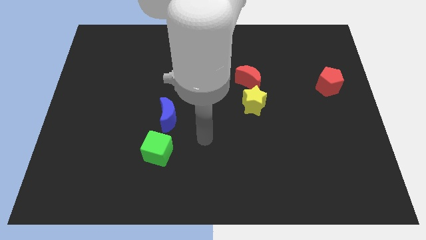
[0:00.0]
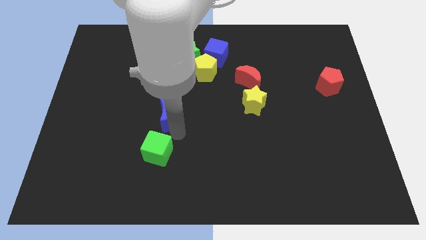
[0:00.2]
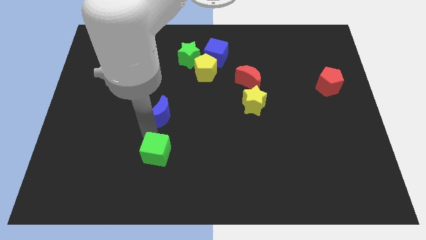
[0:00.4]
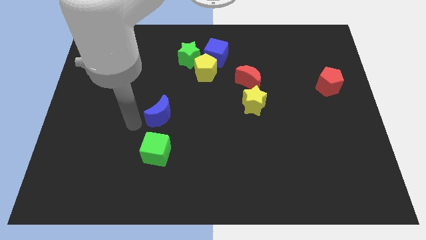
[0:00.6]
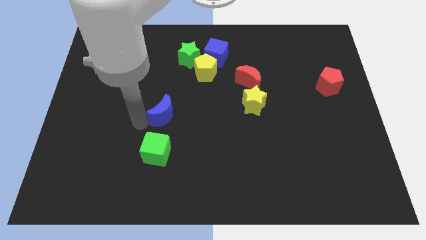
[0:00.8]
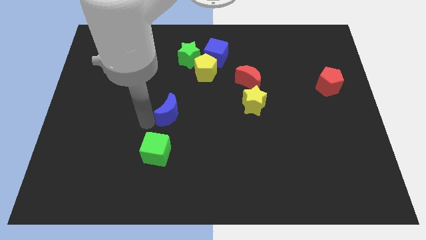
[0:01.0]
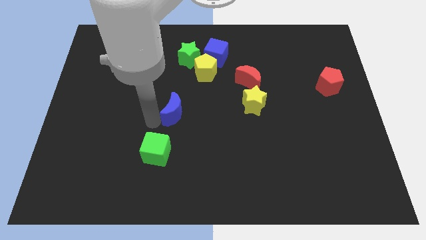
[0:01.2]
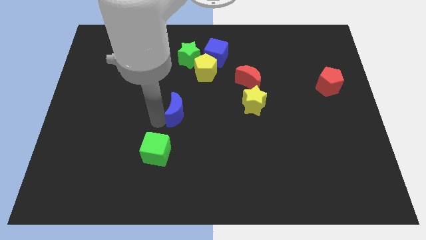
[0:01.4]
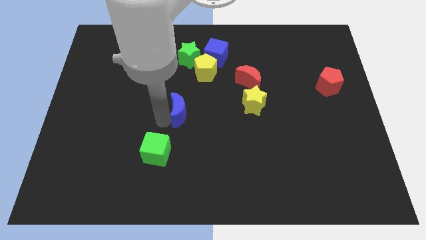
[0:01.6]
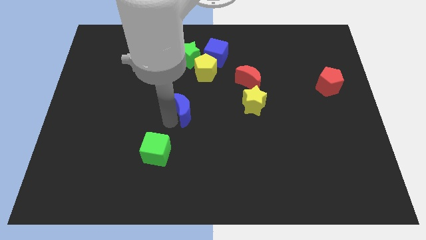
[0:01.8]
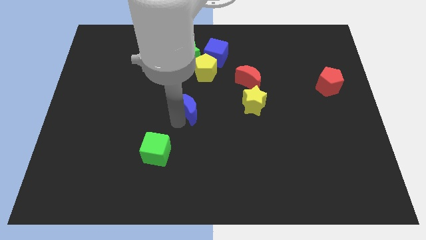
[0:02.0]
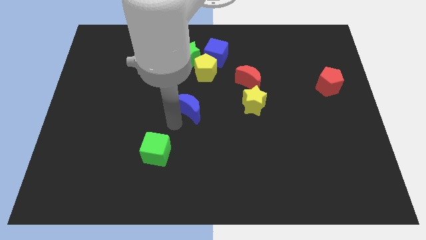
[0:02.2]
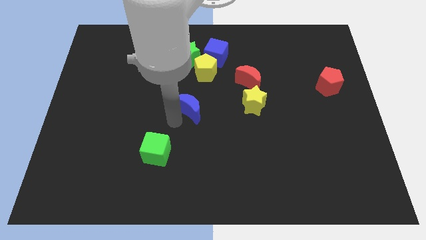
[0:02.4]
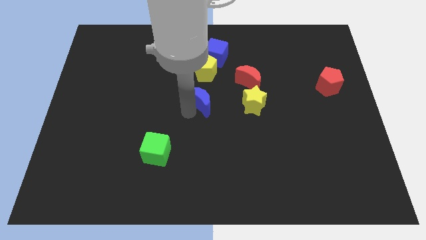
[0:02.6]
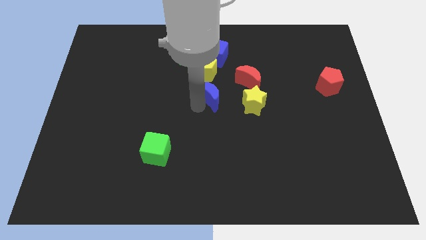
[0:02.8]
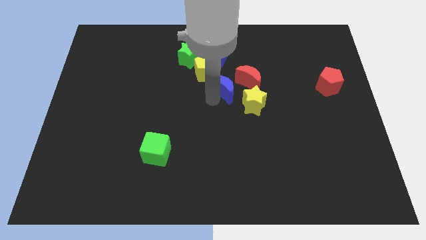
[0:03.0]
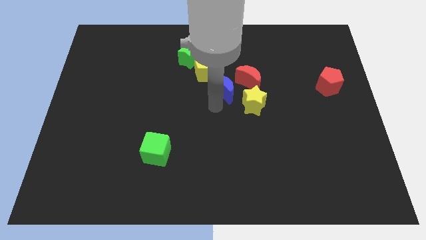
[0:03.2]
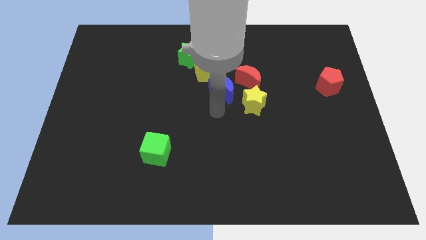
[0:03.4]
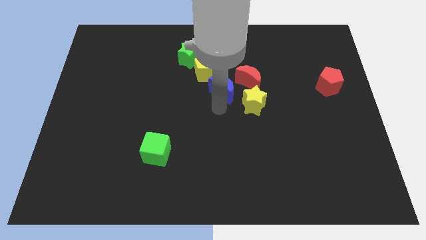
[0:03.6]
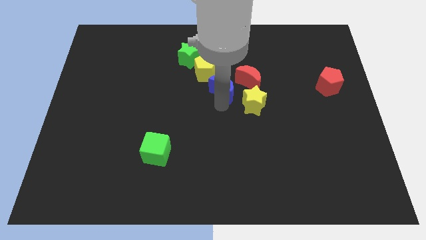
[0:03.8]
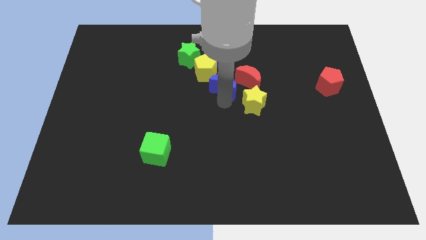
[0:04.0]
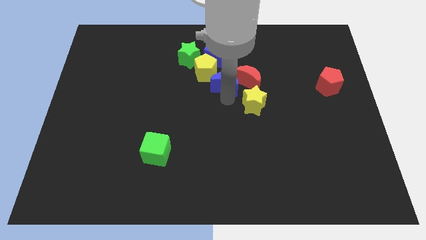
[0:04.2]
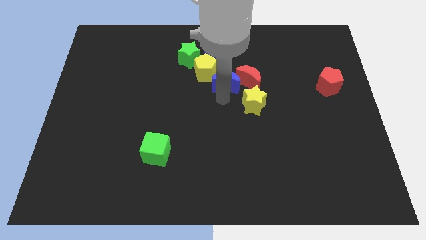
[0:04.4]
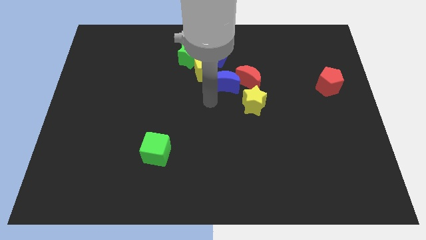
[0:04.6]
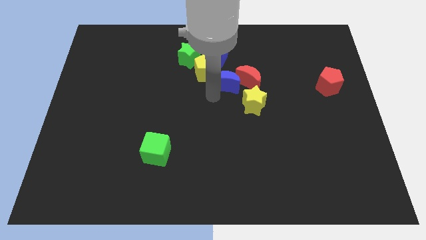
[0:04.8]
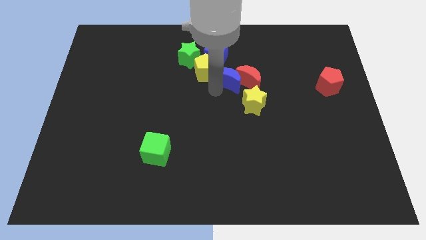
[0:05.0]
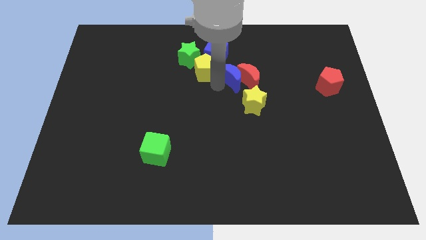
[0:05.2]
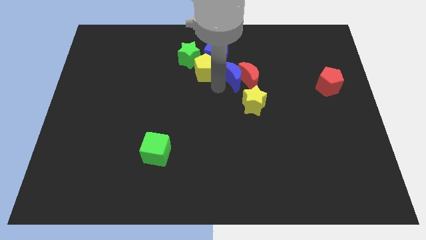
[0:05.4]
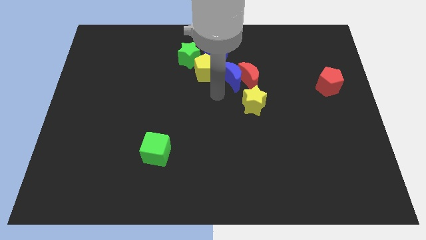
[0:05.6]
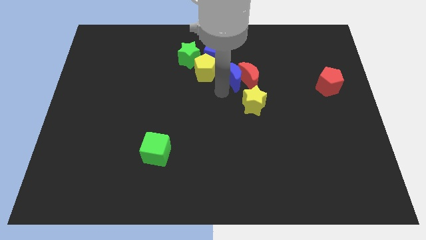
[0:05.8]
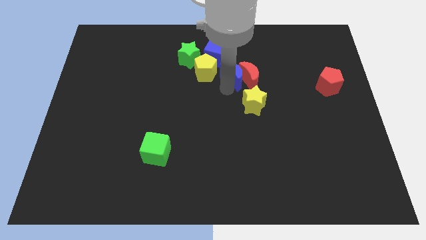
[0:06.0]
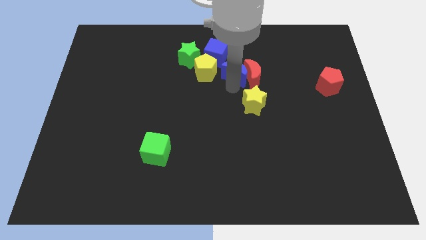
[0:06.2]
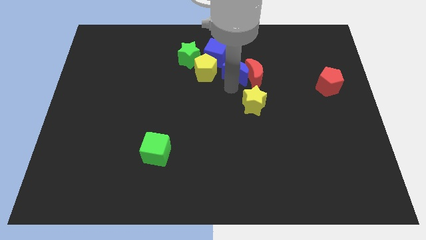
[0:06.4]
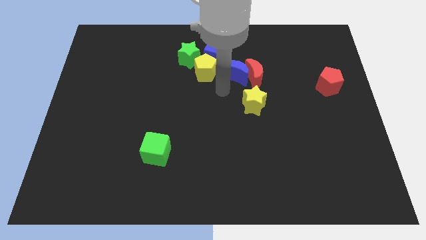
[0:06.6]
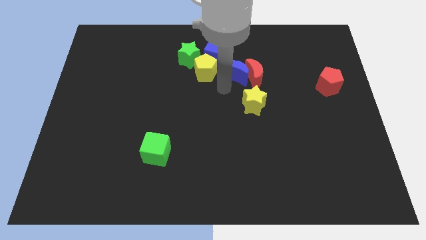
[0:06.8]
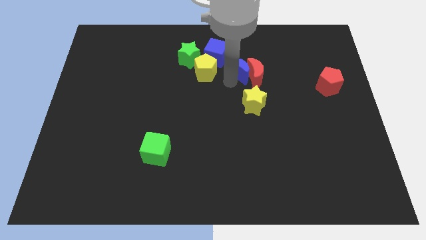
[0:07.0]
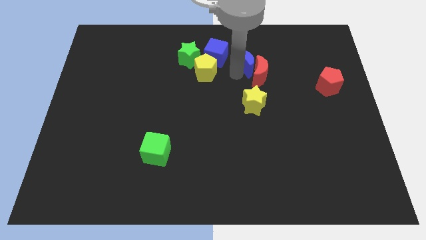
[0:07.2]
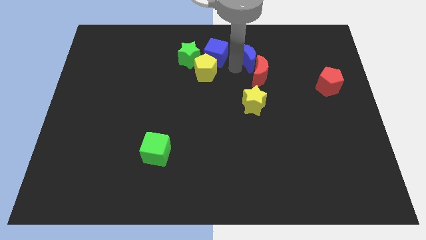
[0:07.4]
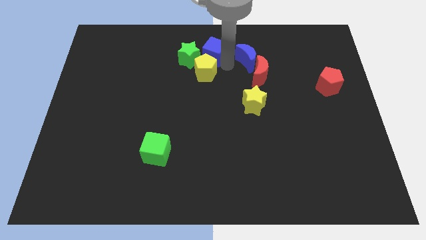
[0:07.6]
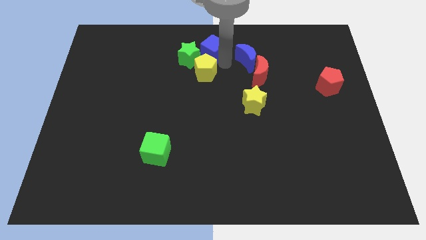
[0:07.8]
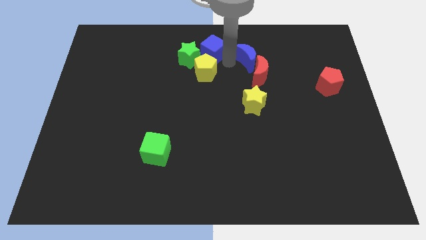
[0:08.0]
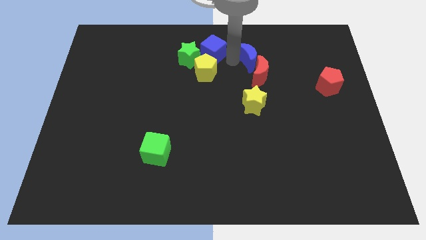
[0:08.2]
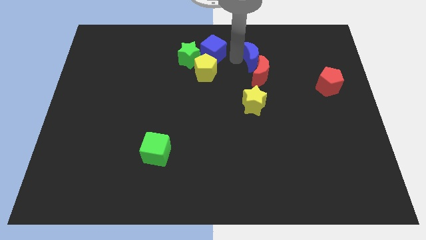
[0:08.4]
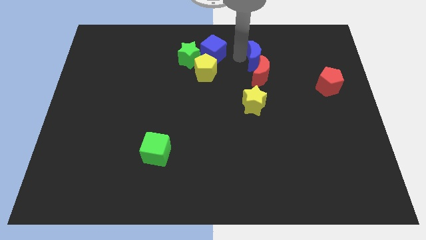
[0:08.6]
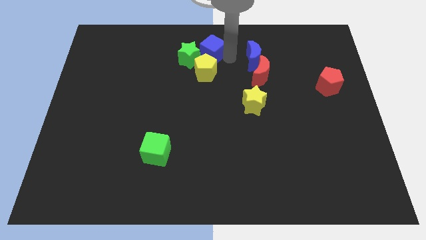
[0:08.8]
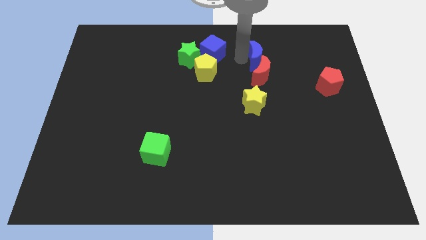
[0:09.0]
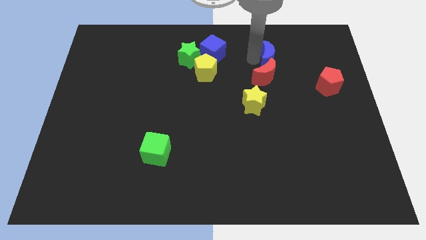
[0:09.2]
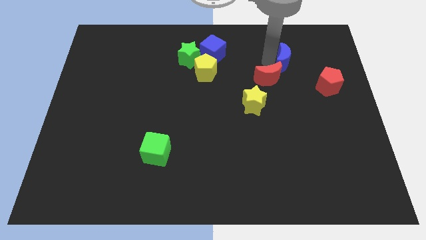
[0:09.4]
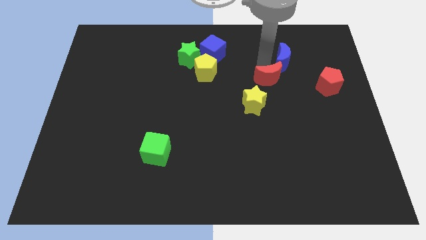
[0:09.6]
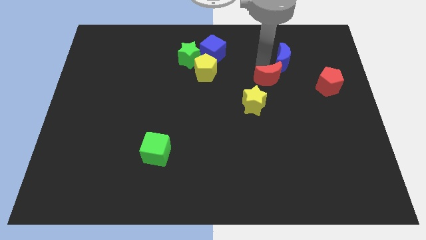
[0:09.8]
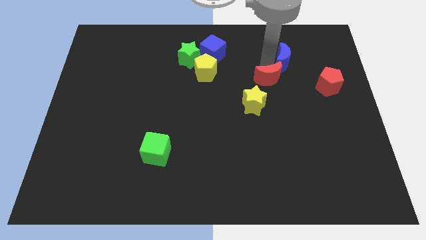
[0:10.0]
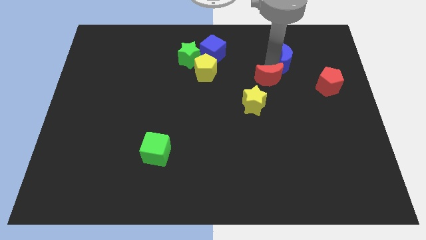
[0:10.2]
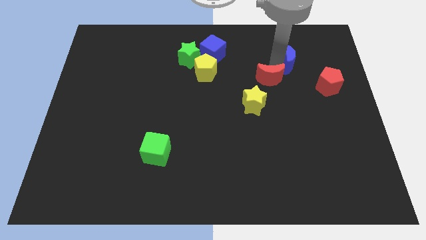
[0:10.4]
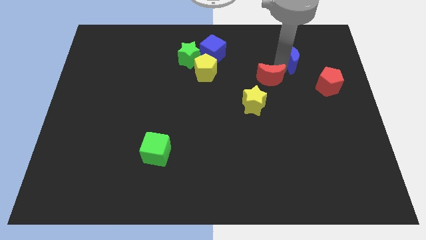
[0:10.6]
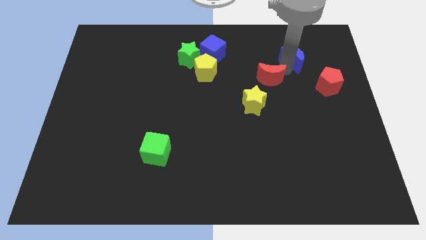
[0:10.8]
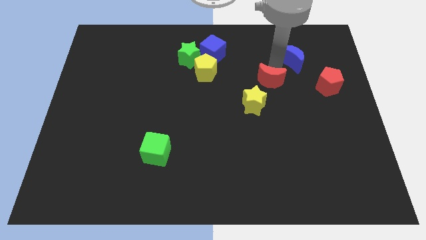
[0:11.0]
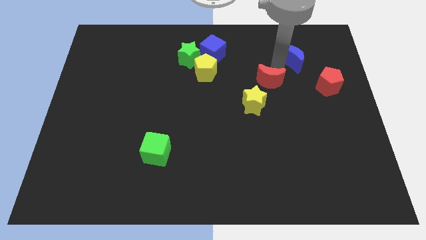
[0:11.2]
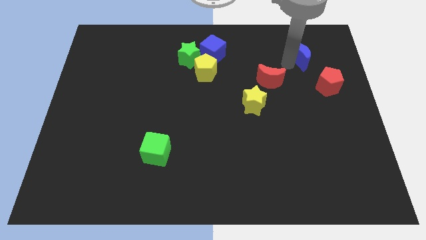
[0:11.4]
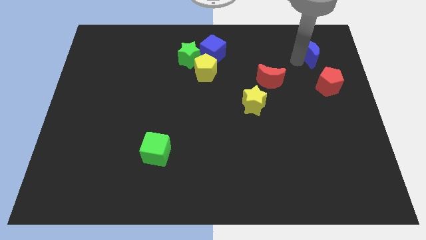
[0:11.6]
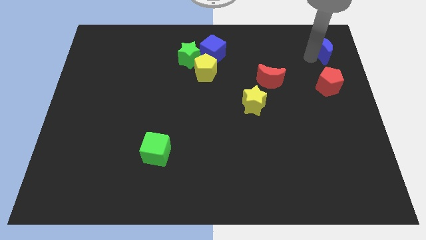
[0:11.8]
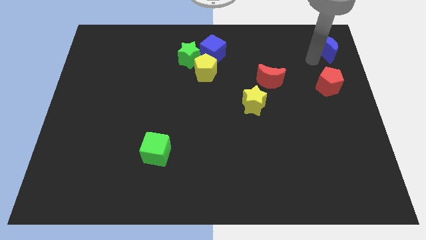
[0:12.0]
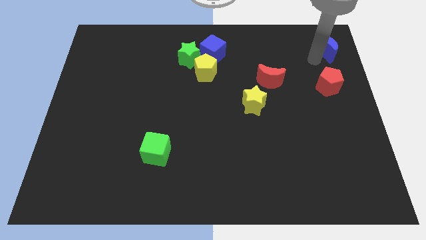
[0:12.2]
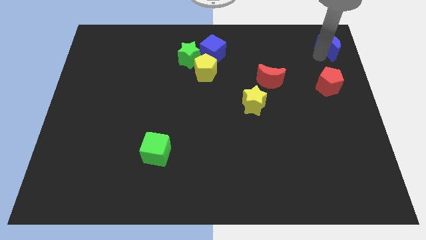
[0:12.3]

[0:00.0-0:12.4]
move the blue moon to the top right of the board

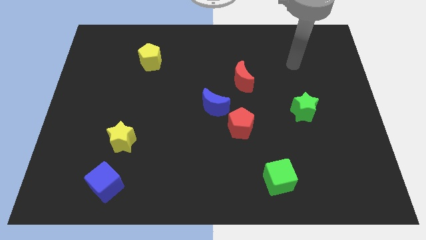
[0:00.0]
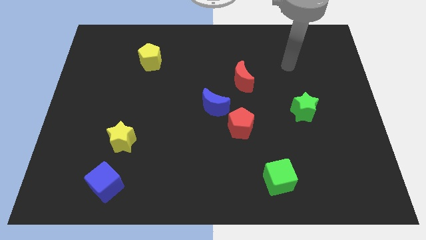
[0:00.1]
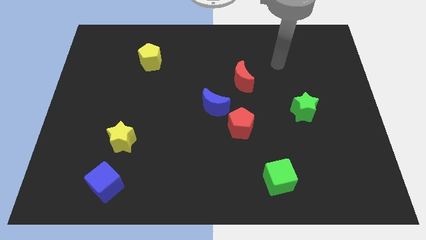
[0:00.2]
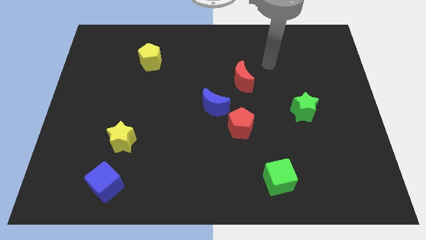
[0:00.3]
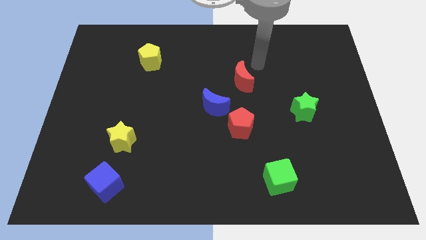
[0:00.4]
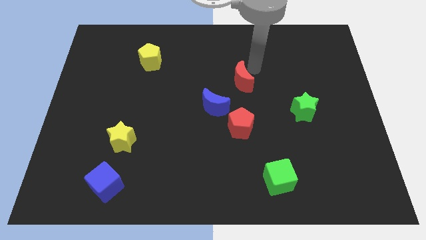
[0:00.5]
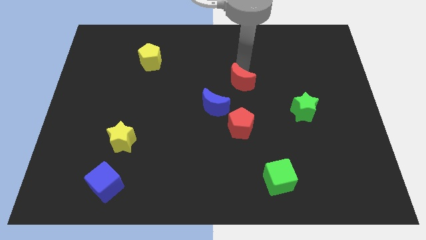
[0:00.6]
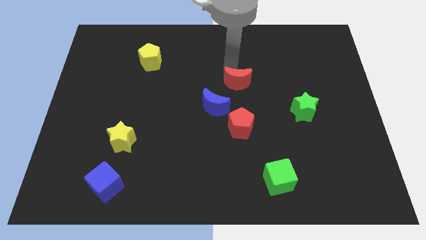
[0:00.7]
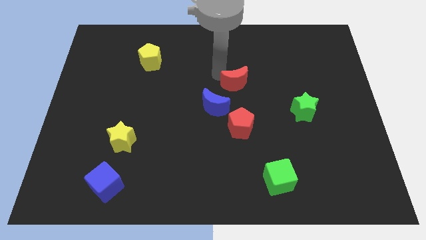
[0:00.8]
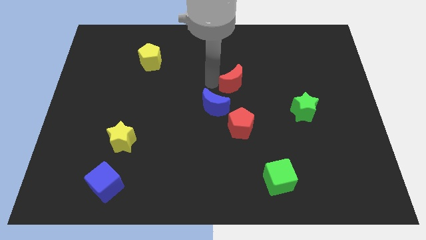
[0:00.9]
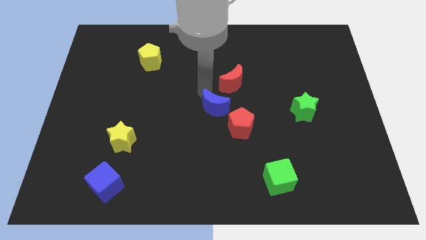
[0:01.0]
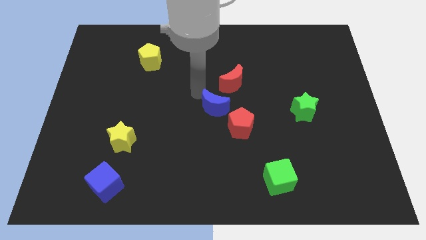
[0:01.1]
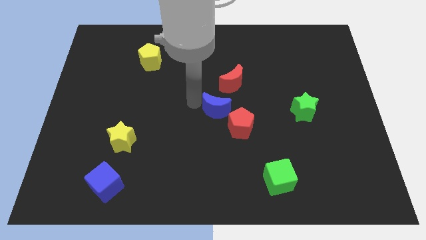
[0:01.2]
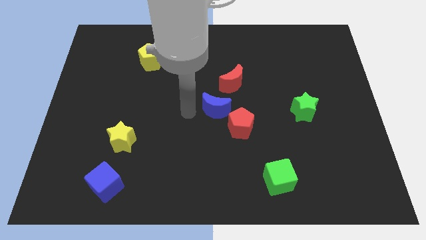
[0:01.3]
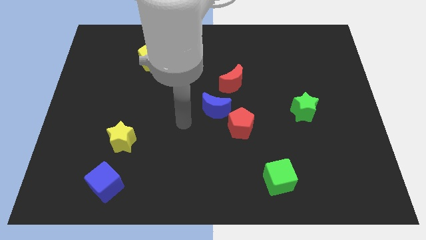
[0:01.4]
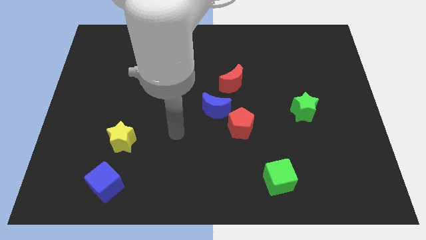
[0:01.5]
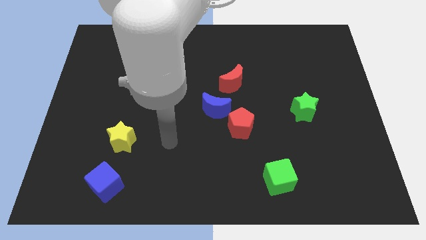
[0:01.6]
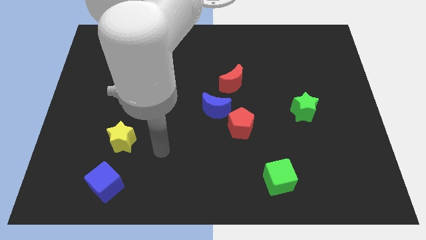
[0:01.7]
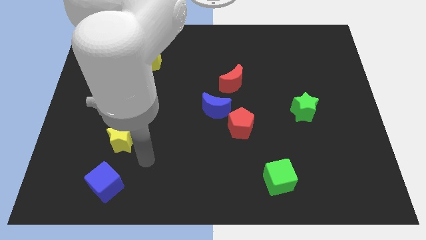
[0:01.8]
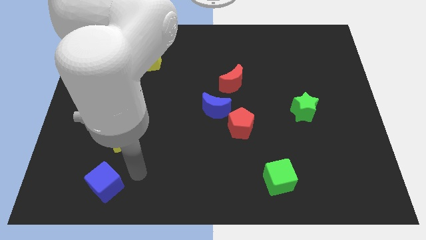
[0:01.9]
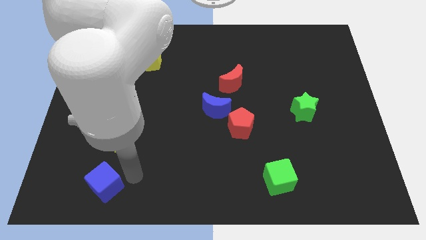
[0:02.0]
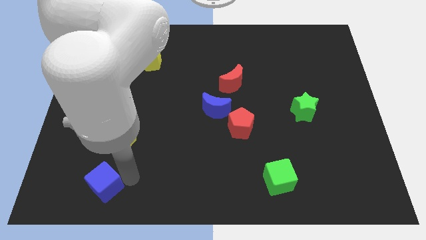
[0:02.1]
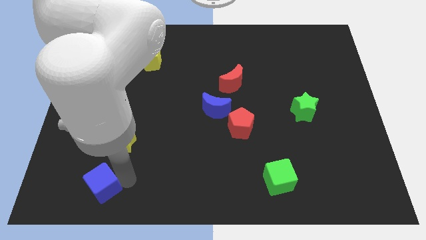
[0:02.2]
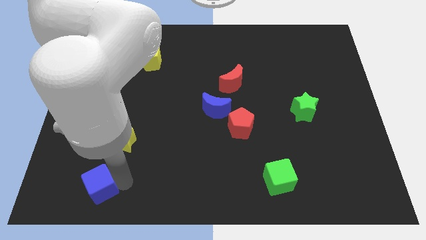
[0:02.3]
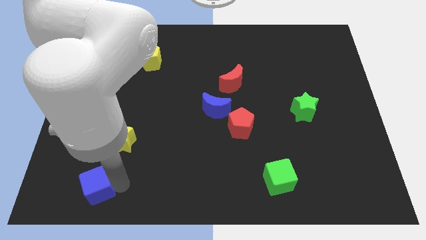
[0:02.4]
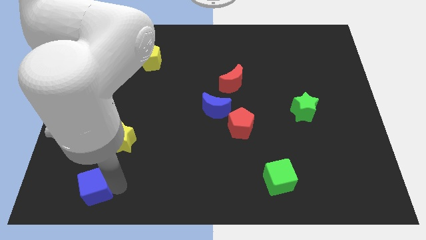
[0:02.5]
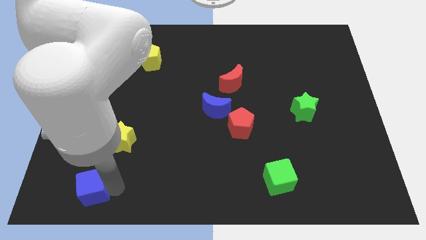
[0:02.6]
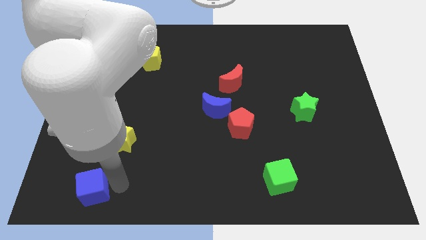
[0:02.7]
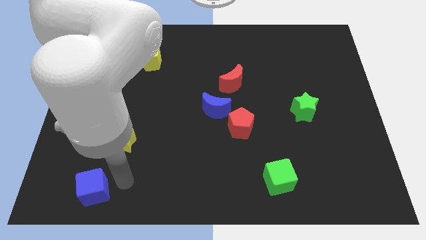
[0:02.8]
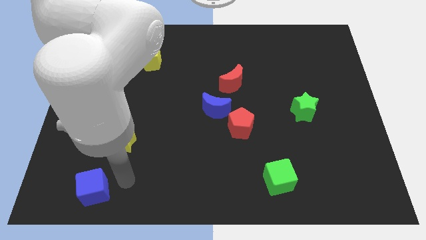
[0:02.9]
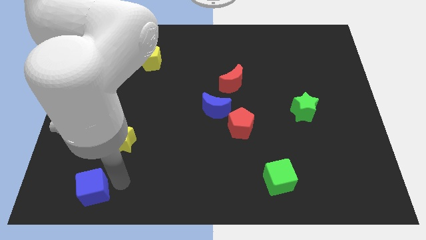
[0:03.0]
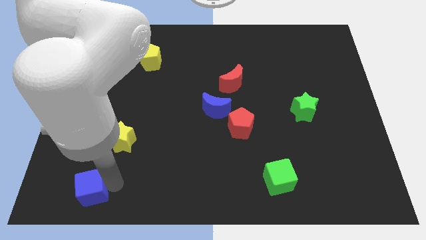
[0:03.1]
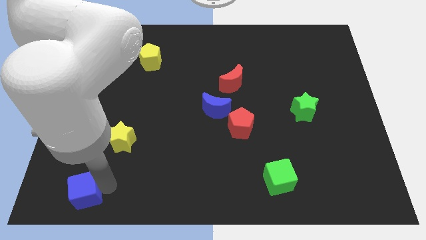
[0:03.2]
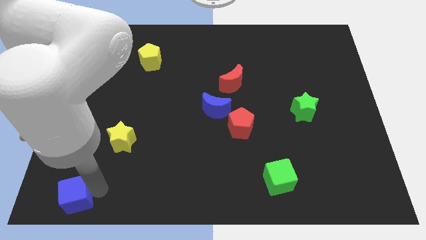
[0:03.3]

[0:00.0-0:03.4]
push the blue cube to the lower left corner
